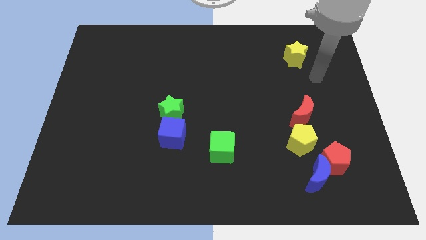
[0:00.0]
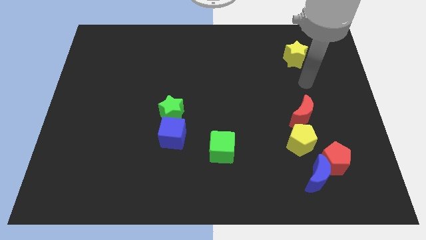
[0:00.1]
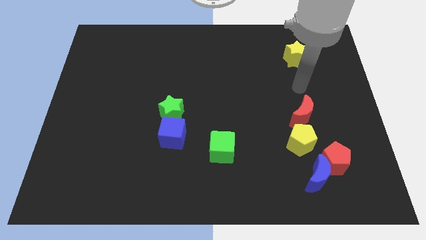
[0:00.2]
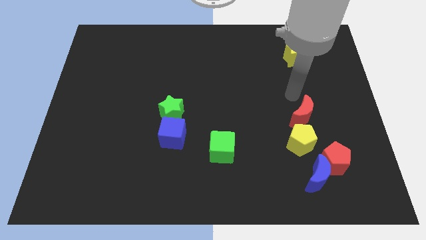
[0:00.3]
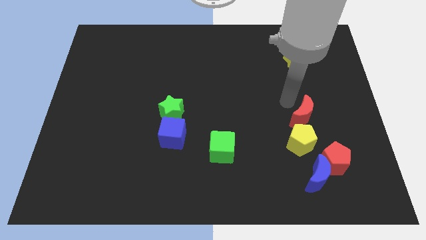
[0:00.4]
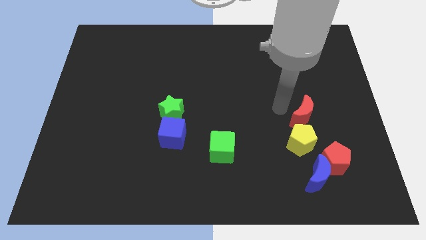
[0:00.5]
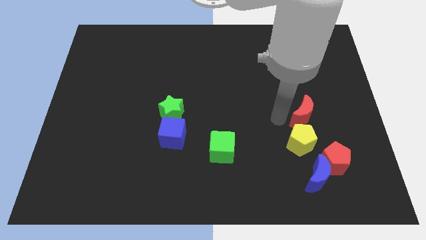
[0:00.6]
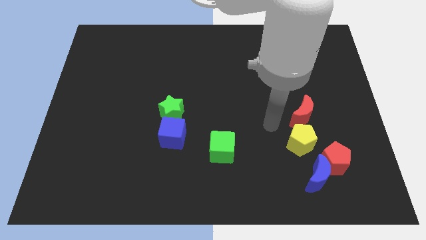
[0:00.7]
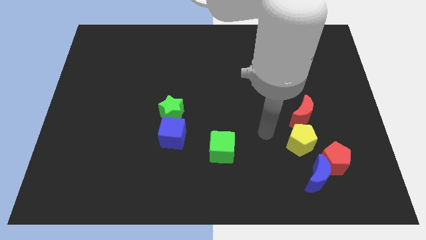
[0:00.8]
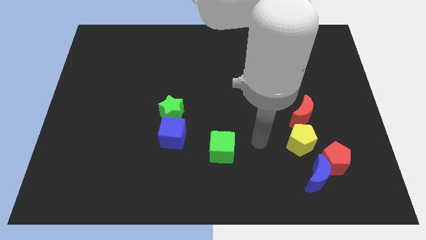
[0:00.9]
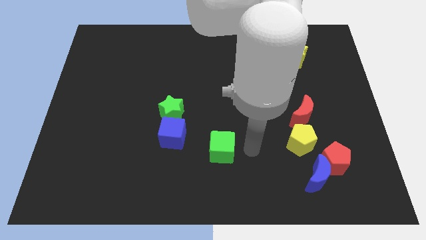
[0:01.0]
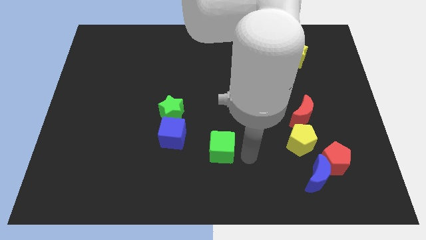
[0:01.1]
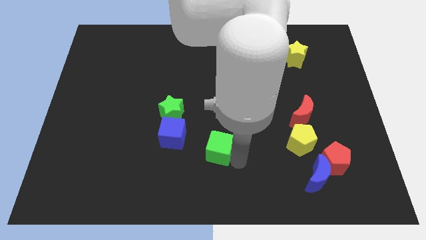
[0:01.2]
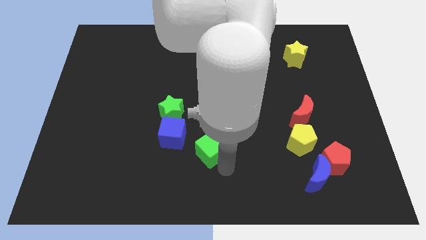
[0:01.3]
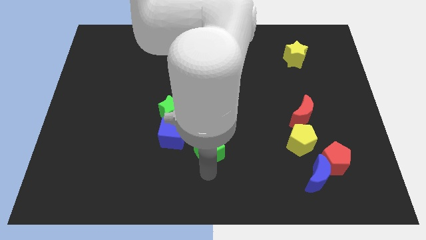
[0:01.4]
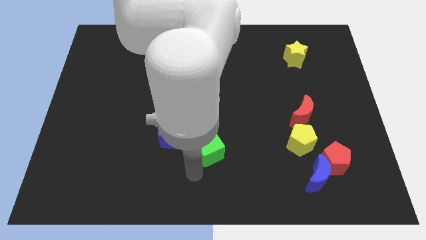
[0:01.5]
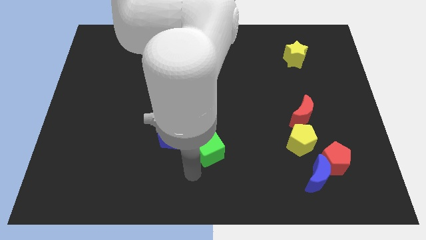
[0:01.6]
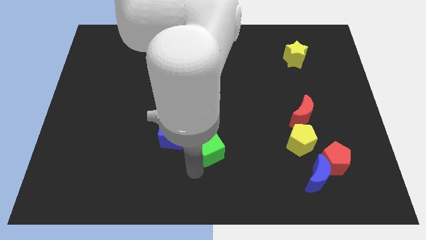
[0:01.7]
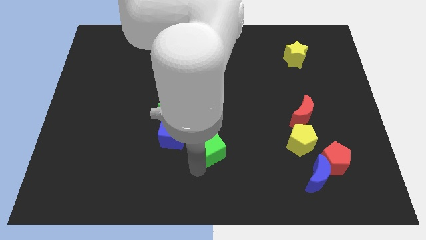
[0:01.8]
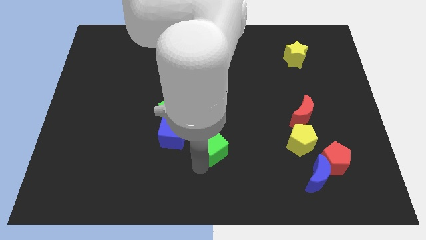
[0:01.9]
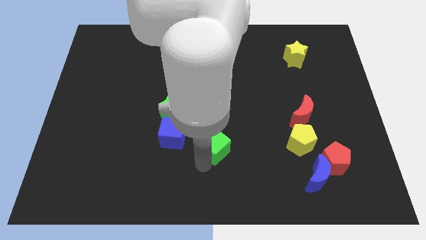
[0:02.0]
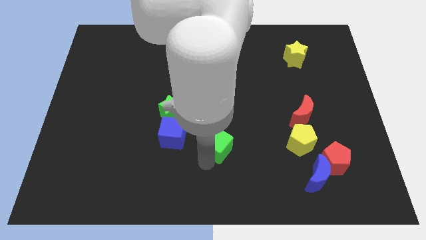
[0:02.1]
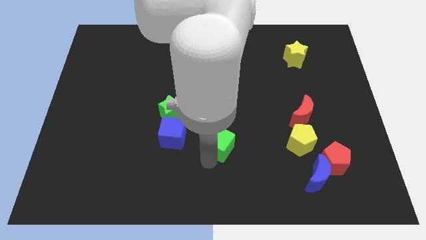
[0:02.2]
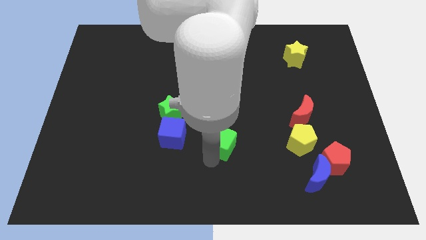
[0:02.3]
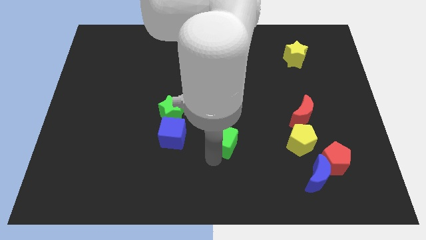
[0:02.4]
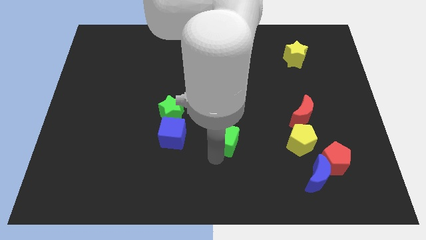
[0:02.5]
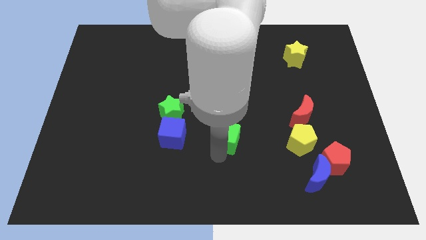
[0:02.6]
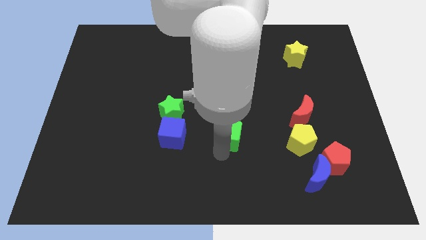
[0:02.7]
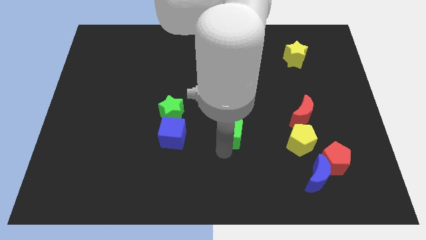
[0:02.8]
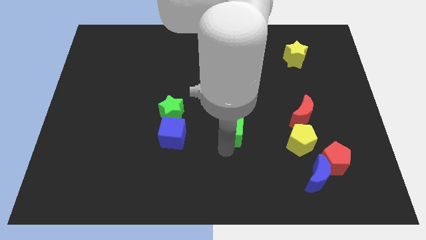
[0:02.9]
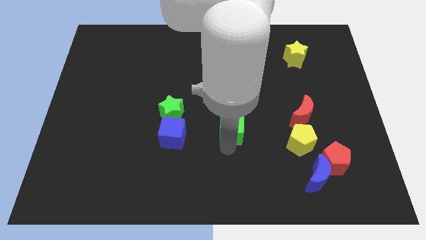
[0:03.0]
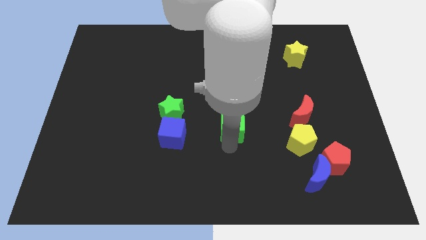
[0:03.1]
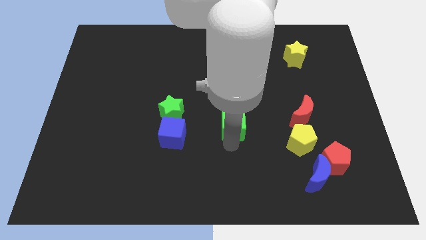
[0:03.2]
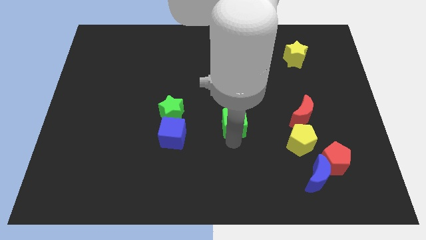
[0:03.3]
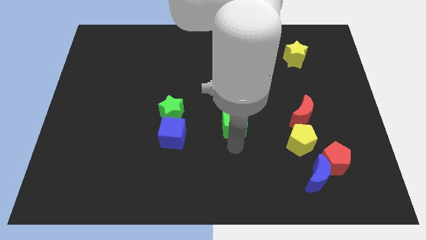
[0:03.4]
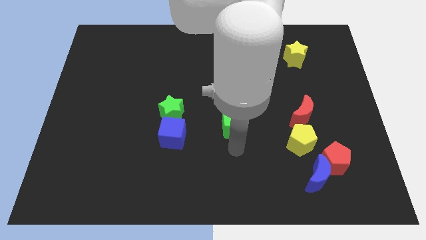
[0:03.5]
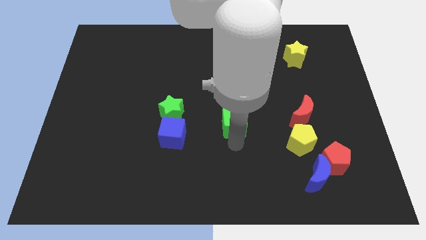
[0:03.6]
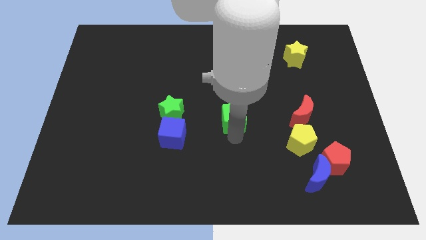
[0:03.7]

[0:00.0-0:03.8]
slightly move the green cube upwards

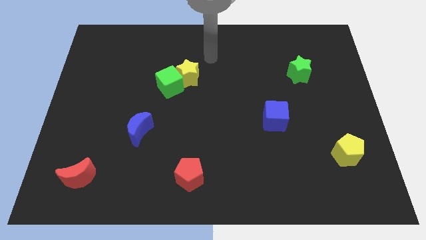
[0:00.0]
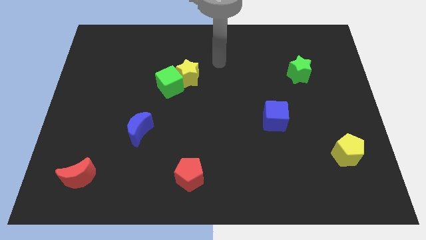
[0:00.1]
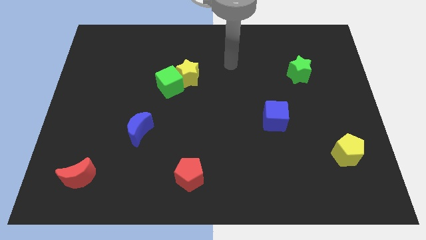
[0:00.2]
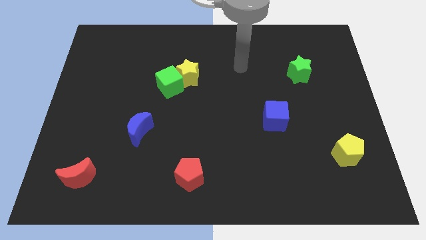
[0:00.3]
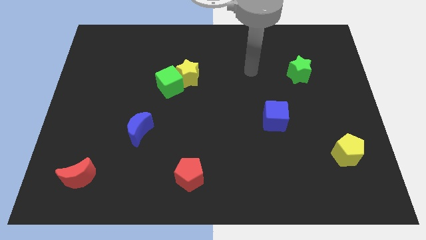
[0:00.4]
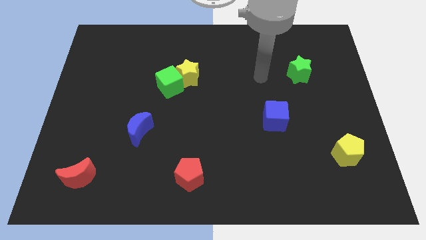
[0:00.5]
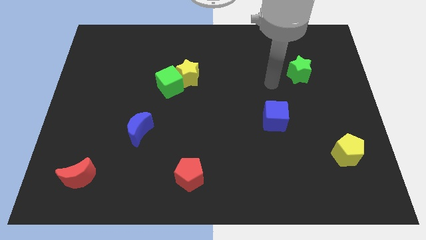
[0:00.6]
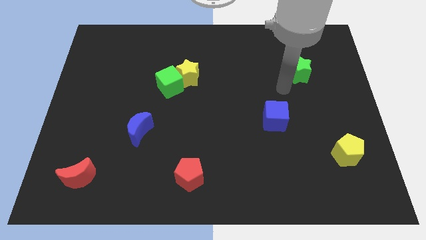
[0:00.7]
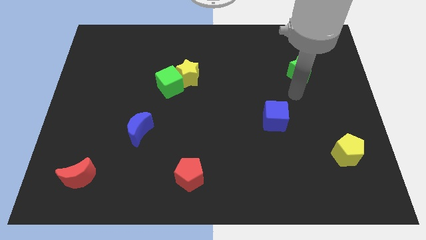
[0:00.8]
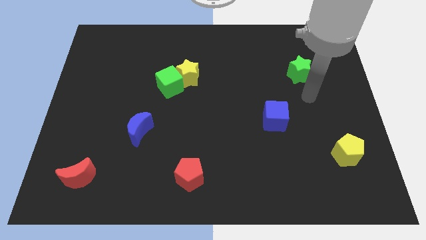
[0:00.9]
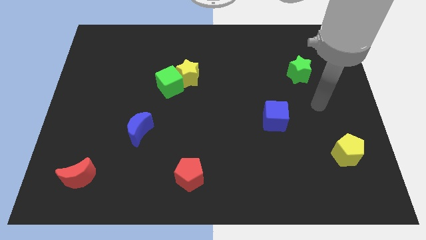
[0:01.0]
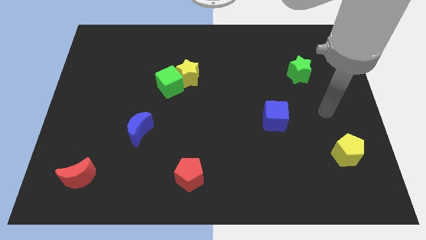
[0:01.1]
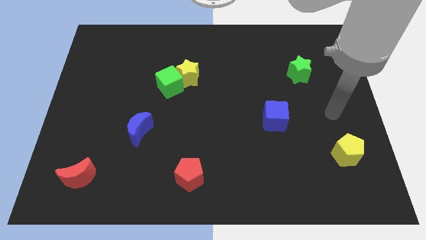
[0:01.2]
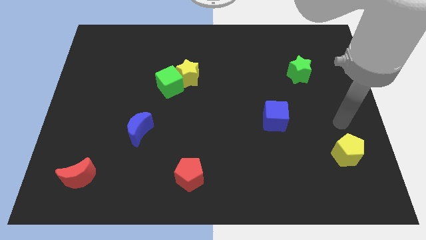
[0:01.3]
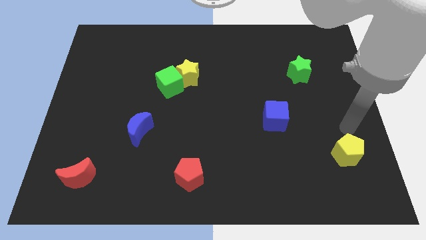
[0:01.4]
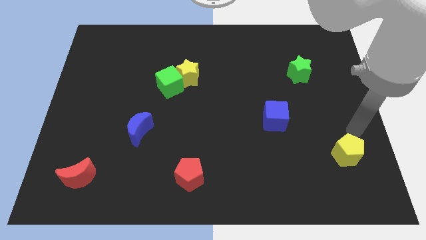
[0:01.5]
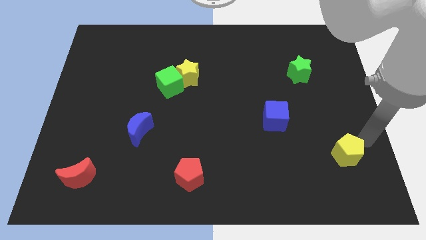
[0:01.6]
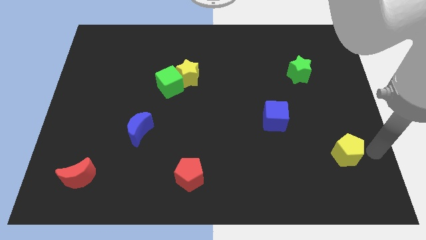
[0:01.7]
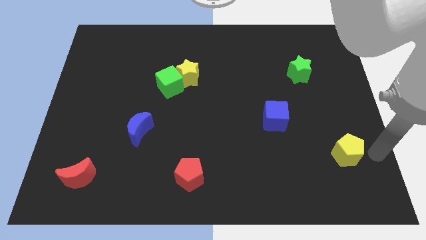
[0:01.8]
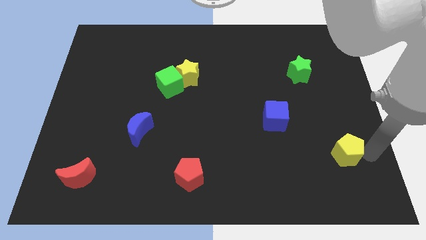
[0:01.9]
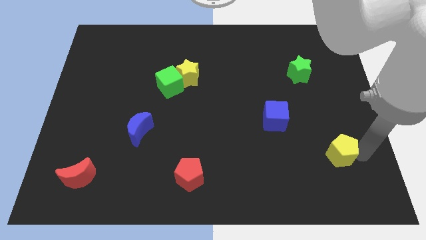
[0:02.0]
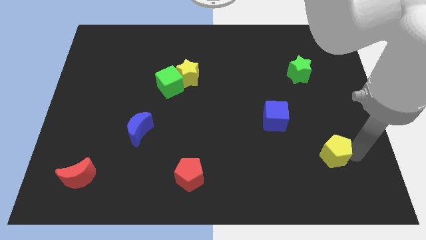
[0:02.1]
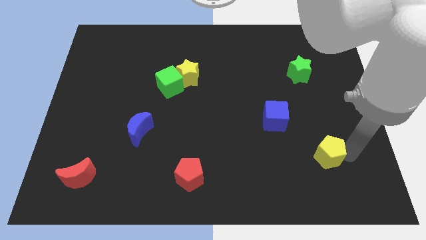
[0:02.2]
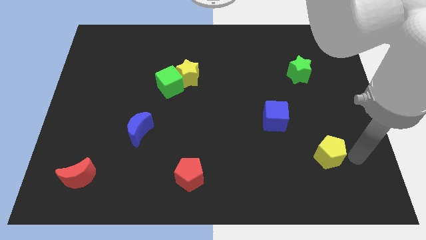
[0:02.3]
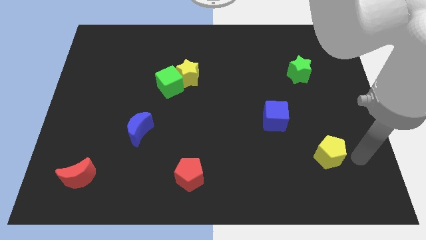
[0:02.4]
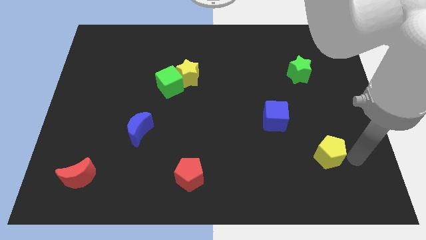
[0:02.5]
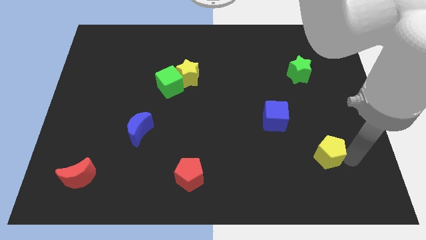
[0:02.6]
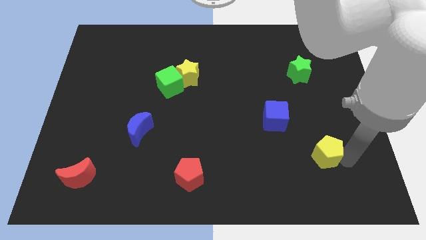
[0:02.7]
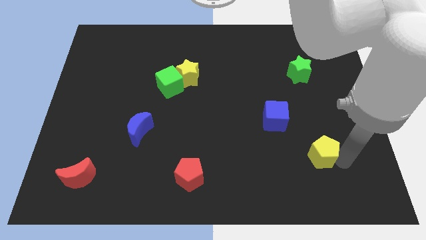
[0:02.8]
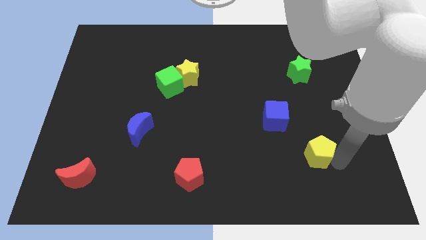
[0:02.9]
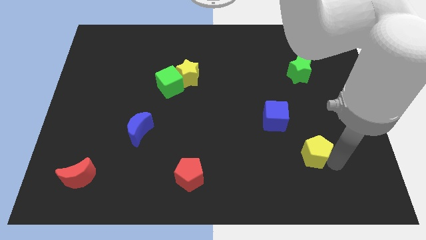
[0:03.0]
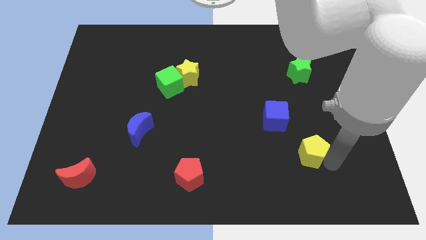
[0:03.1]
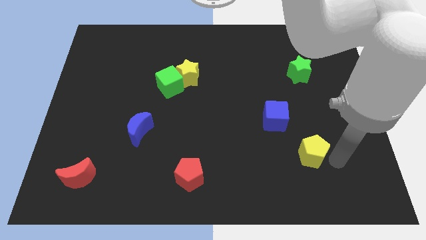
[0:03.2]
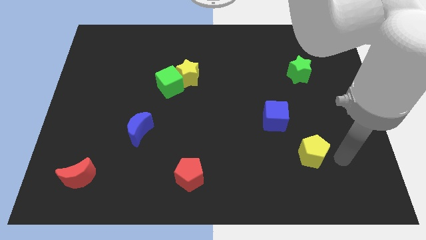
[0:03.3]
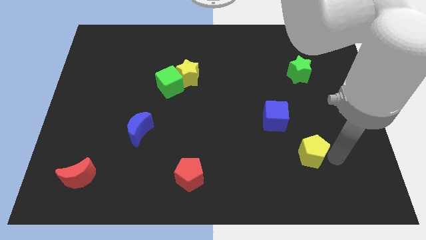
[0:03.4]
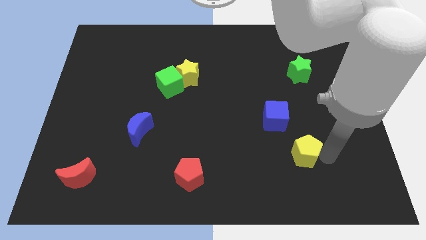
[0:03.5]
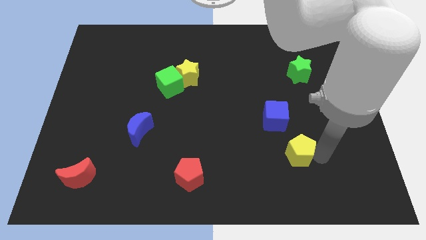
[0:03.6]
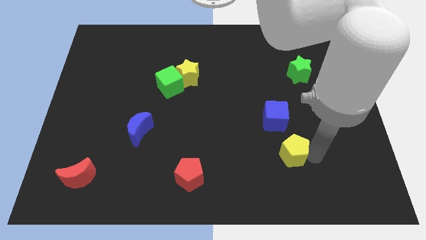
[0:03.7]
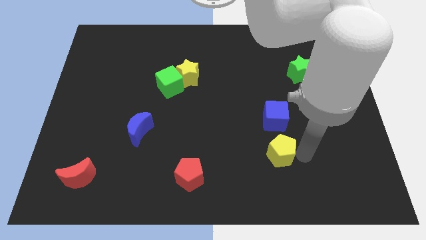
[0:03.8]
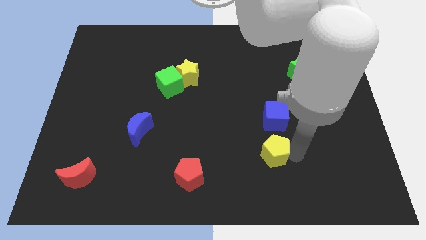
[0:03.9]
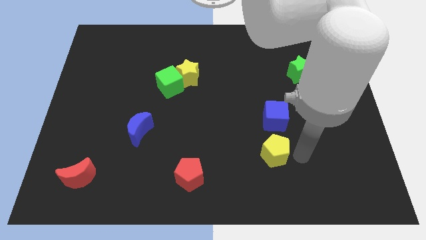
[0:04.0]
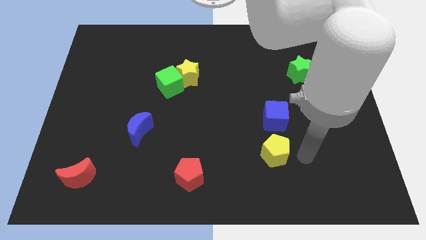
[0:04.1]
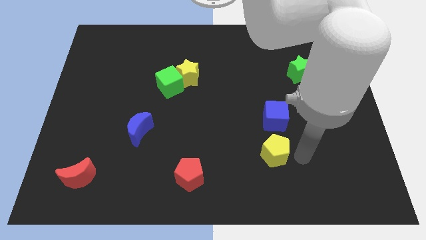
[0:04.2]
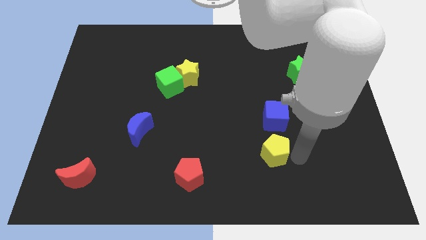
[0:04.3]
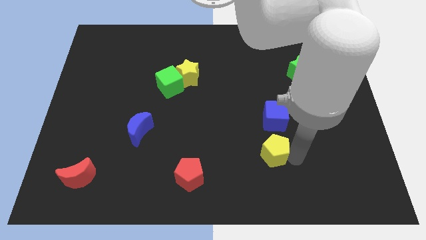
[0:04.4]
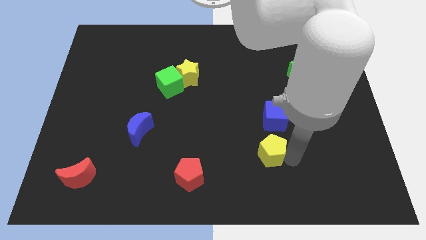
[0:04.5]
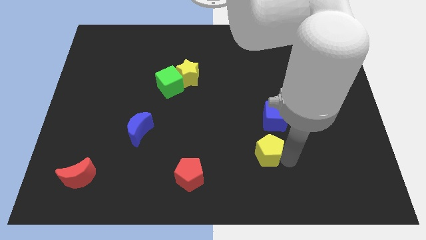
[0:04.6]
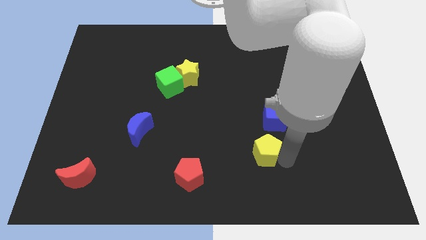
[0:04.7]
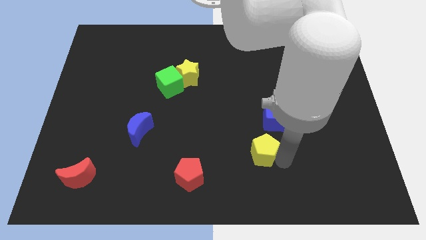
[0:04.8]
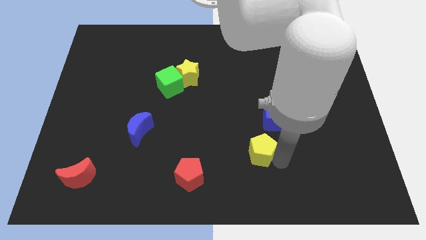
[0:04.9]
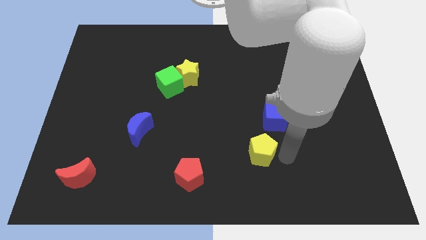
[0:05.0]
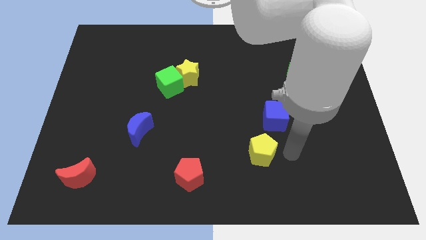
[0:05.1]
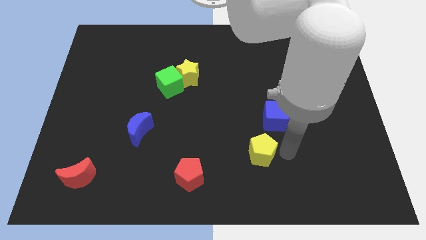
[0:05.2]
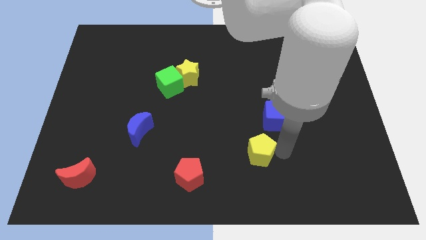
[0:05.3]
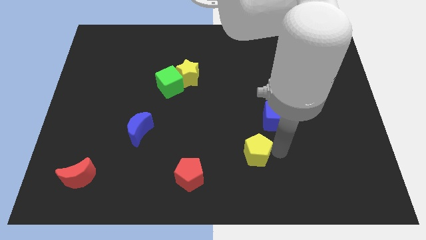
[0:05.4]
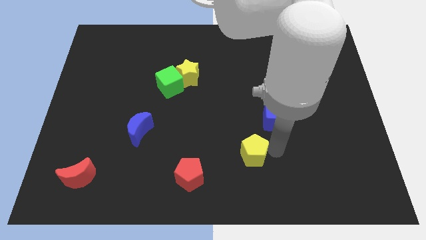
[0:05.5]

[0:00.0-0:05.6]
slide the yellow pentagon left
